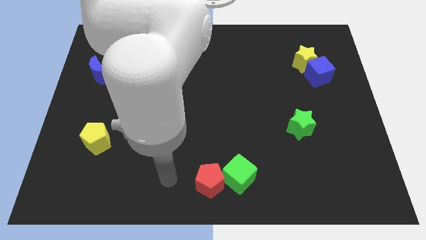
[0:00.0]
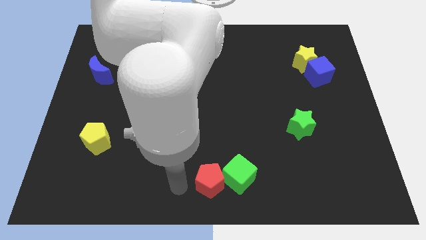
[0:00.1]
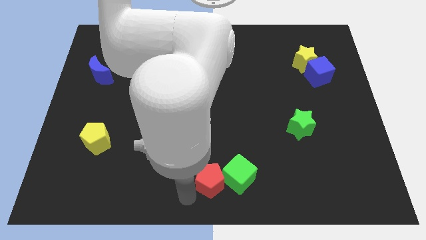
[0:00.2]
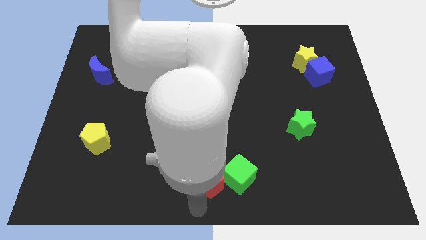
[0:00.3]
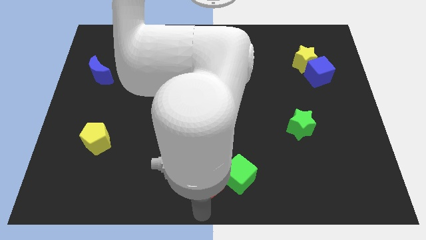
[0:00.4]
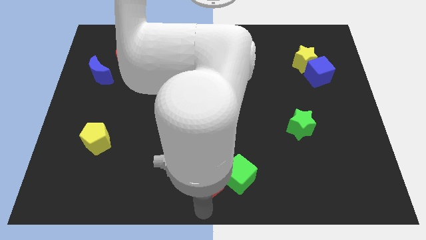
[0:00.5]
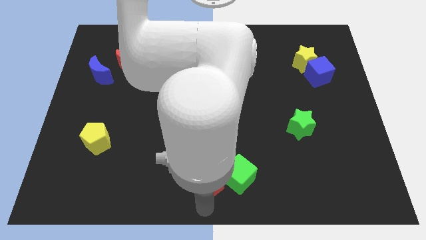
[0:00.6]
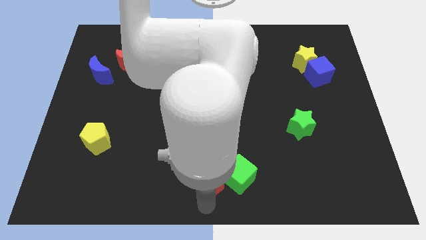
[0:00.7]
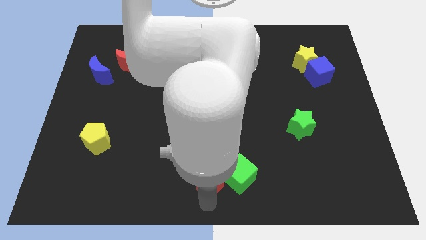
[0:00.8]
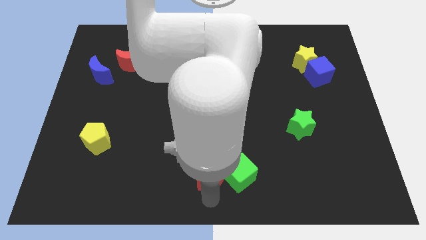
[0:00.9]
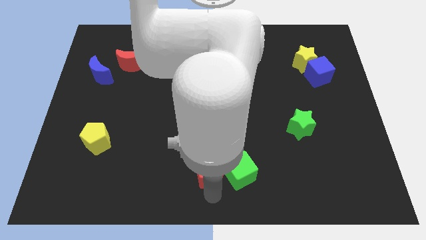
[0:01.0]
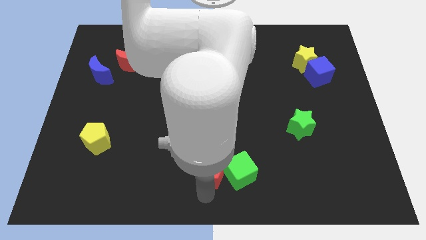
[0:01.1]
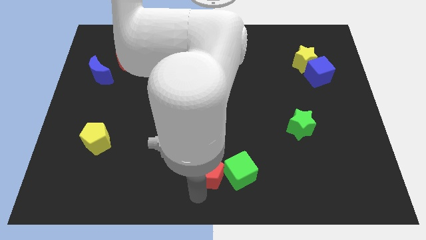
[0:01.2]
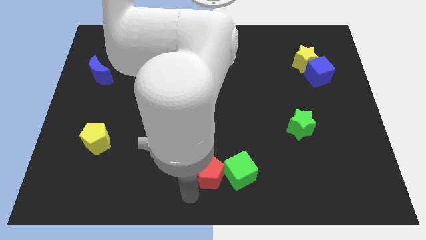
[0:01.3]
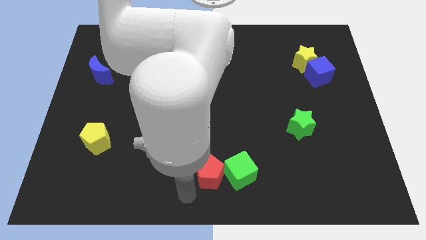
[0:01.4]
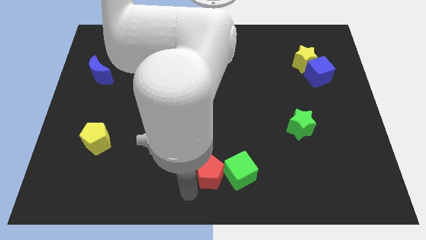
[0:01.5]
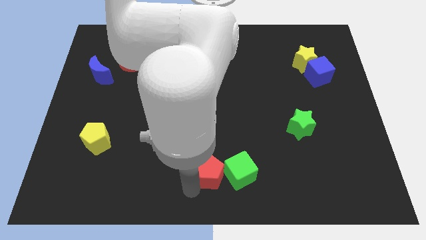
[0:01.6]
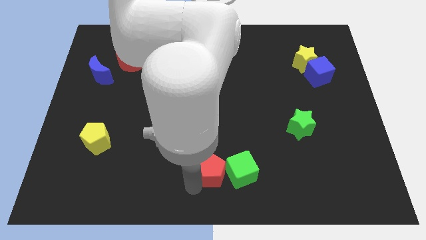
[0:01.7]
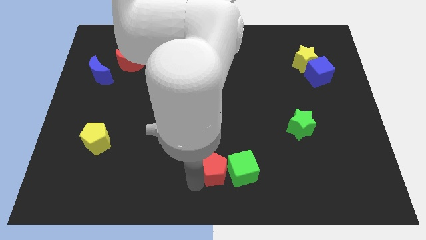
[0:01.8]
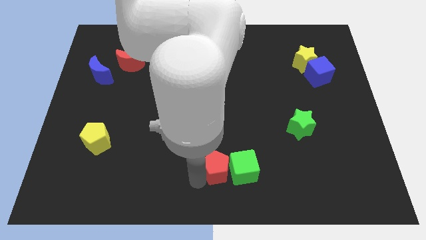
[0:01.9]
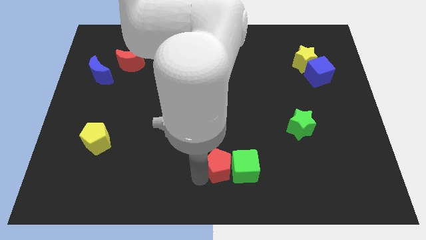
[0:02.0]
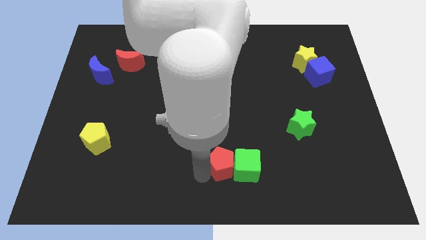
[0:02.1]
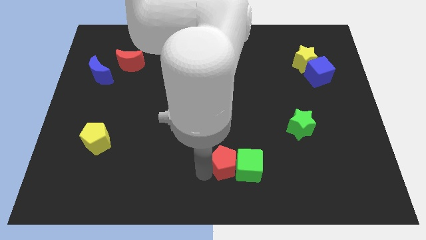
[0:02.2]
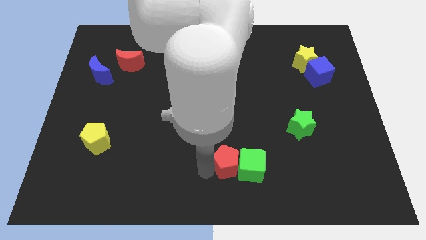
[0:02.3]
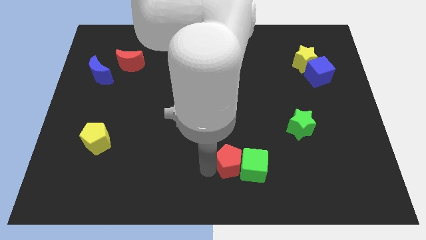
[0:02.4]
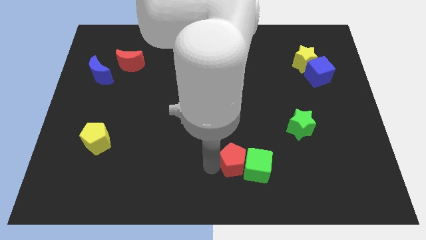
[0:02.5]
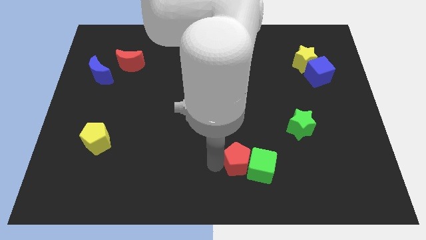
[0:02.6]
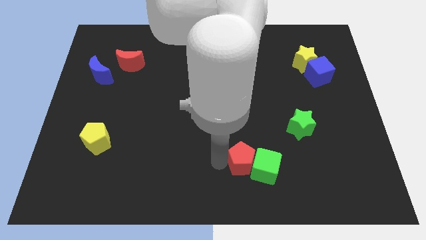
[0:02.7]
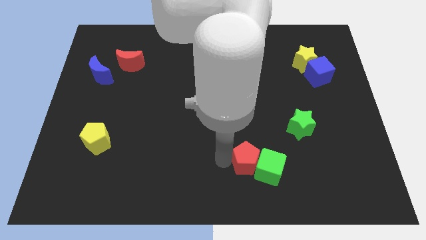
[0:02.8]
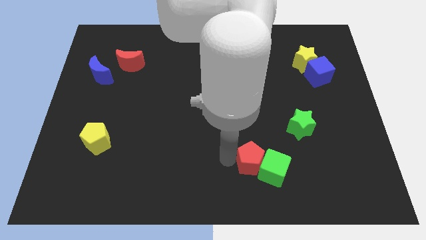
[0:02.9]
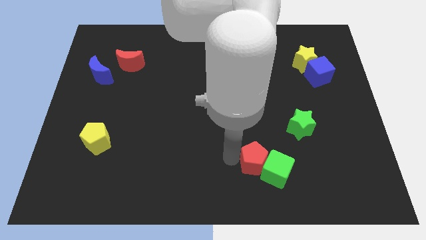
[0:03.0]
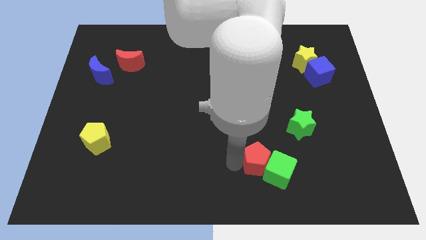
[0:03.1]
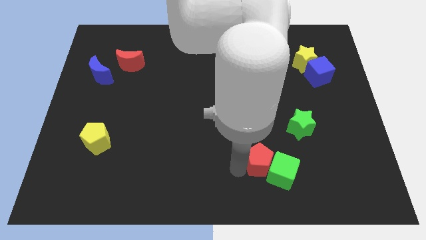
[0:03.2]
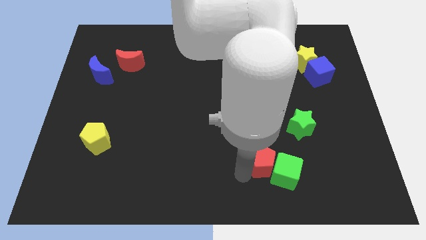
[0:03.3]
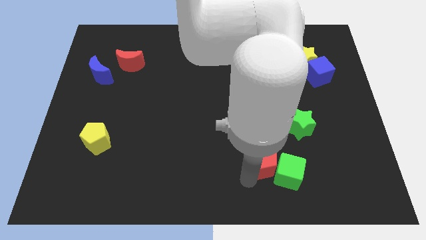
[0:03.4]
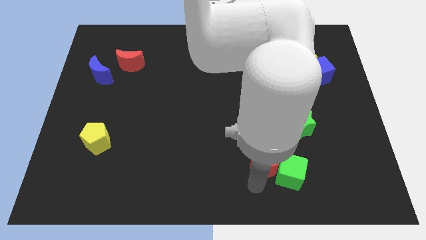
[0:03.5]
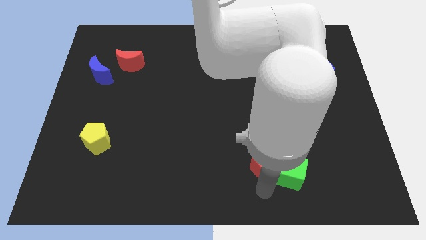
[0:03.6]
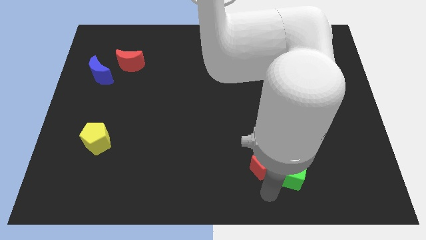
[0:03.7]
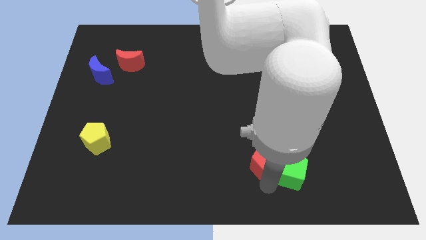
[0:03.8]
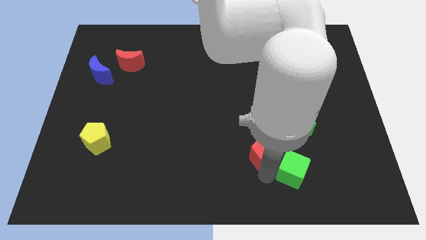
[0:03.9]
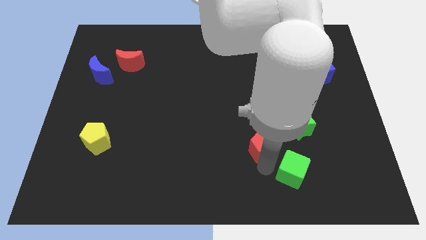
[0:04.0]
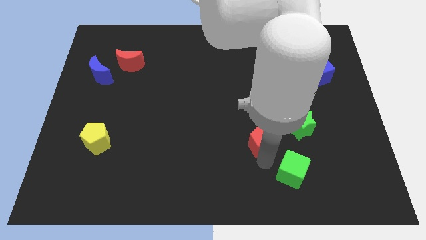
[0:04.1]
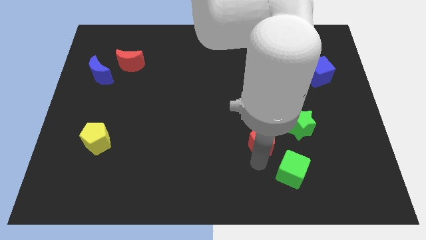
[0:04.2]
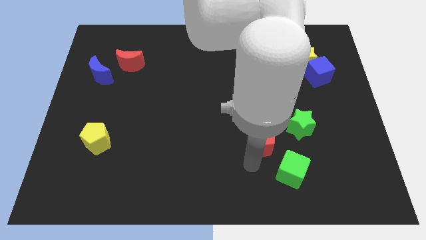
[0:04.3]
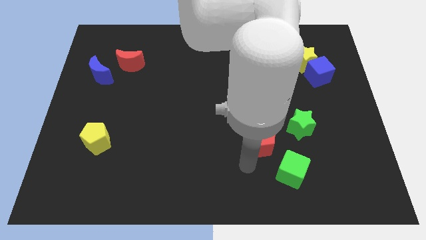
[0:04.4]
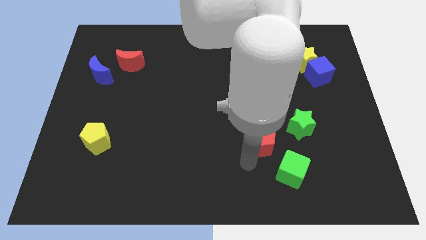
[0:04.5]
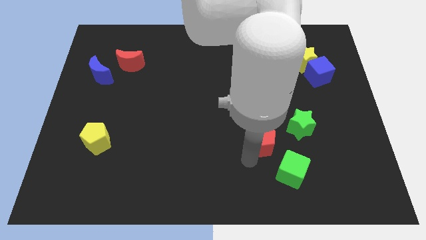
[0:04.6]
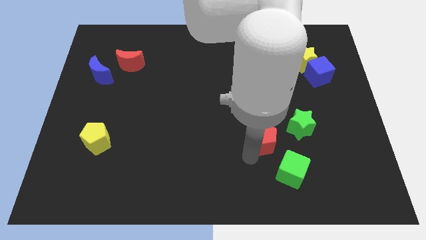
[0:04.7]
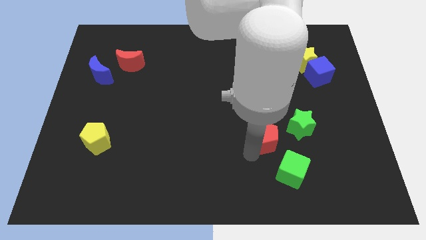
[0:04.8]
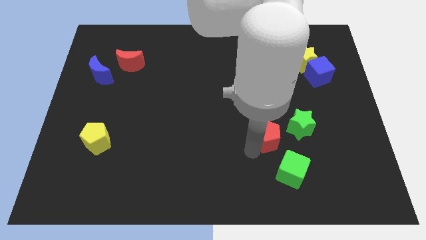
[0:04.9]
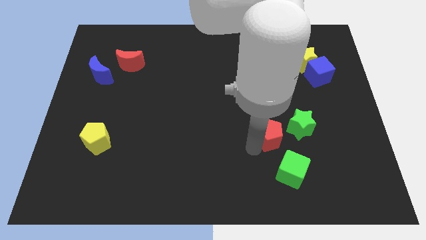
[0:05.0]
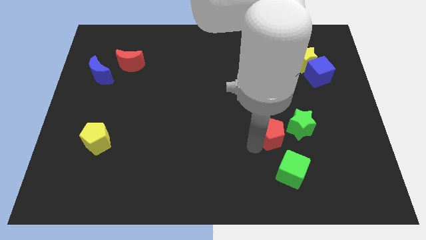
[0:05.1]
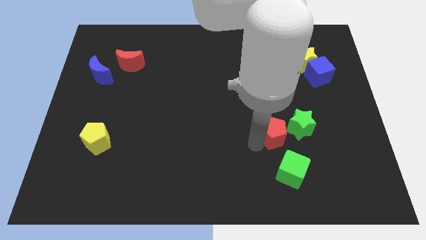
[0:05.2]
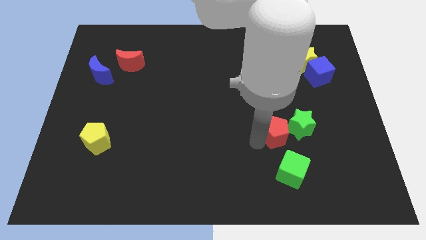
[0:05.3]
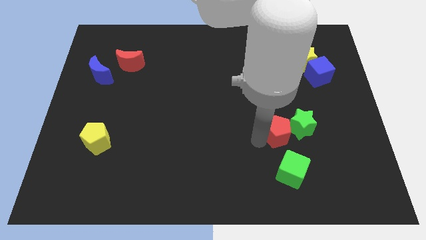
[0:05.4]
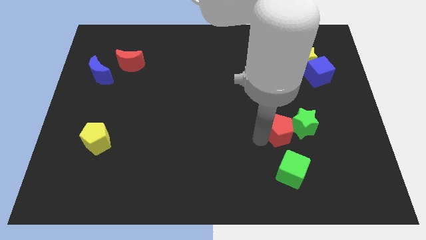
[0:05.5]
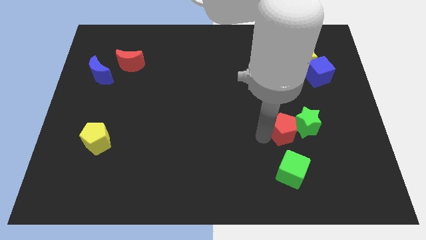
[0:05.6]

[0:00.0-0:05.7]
slide the red pentagon upwards and to the right

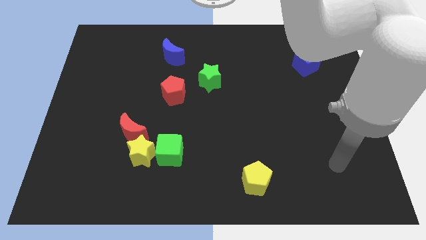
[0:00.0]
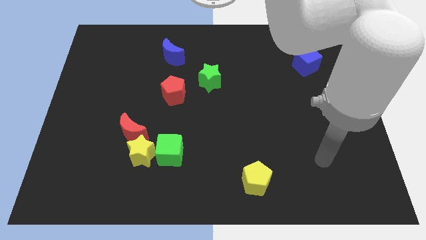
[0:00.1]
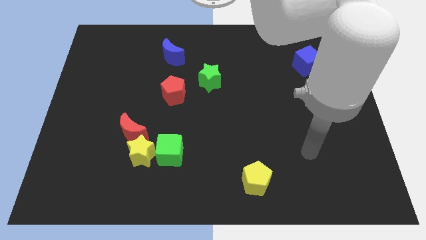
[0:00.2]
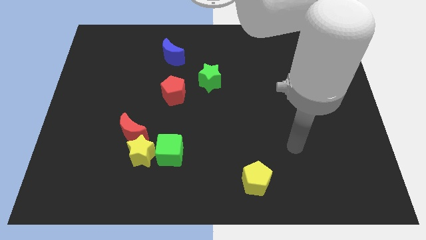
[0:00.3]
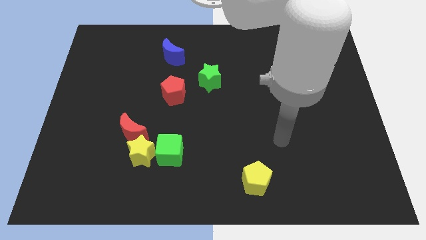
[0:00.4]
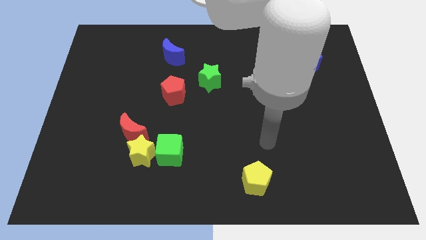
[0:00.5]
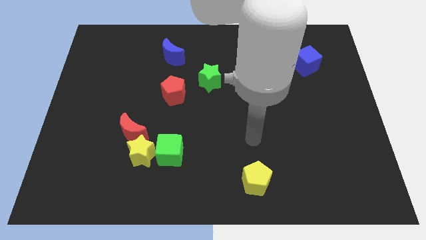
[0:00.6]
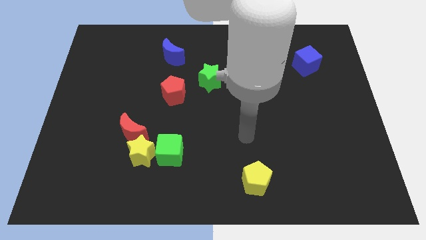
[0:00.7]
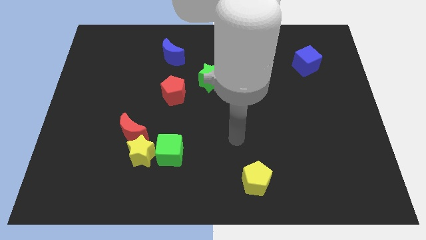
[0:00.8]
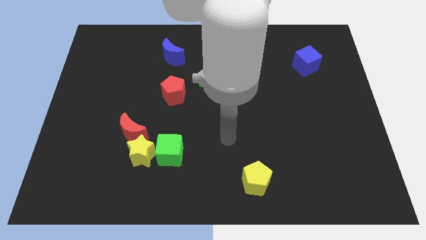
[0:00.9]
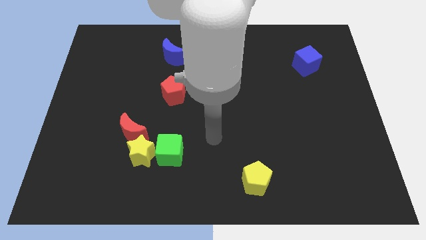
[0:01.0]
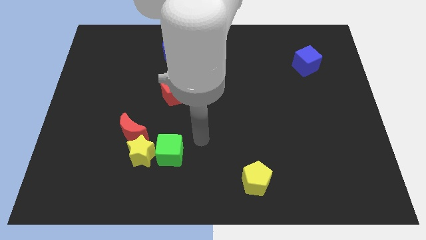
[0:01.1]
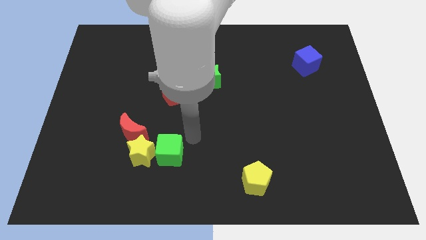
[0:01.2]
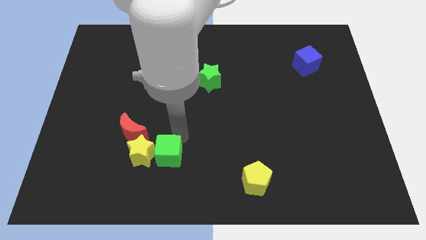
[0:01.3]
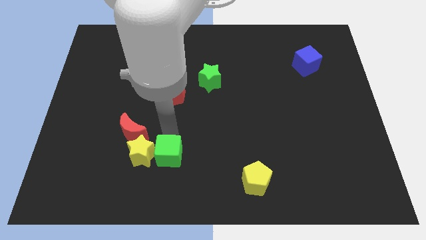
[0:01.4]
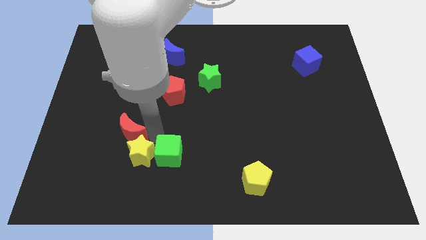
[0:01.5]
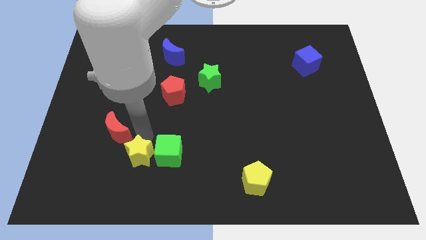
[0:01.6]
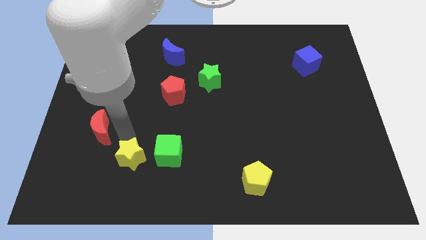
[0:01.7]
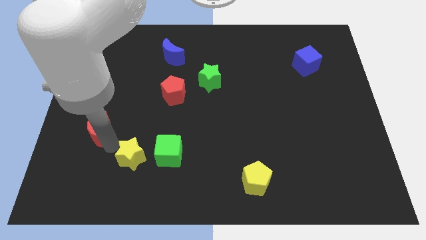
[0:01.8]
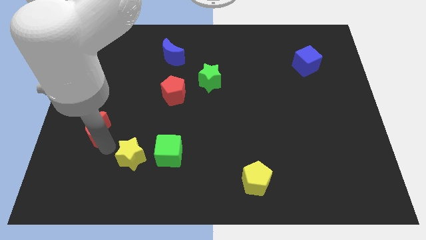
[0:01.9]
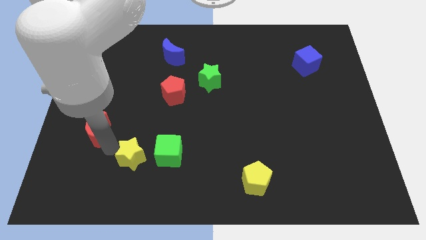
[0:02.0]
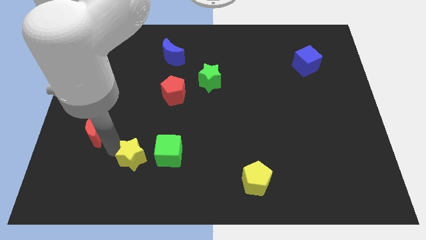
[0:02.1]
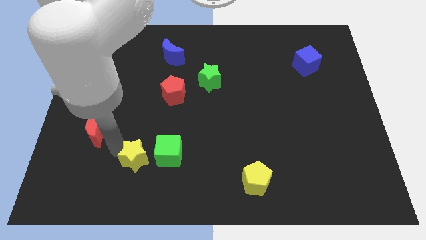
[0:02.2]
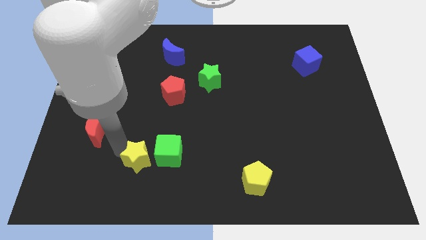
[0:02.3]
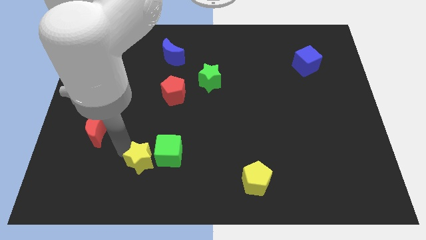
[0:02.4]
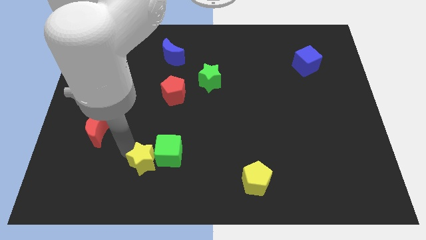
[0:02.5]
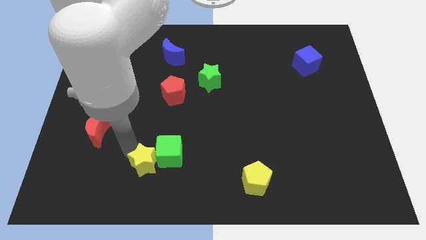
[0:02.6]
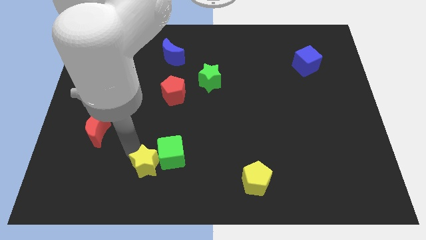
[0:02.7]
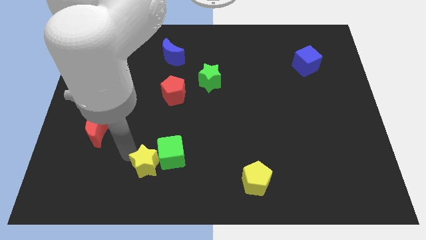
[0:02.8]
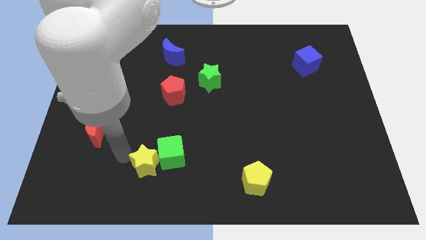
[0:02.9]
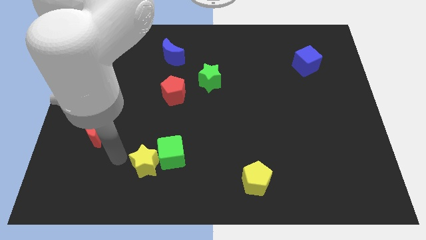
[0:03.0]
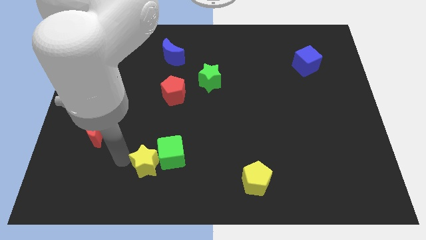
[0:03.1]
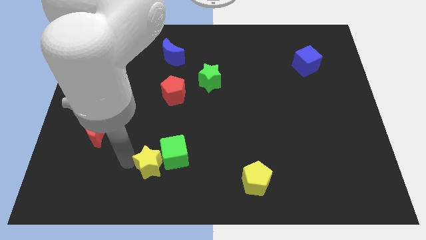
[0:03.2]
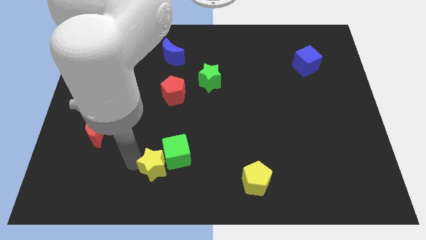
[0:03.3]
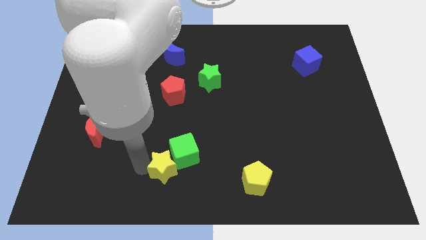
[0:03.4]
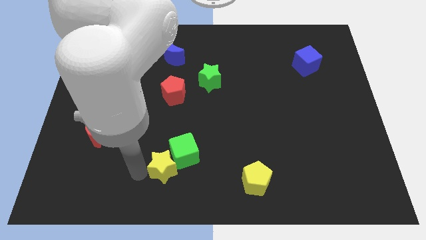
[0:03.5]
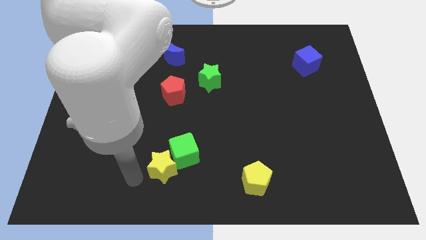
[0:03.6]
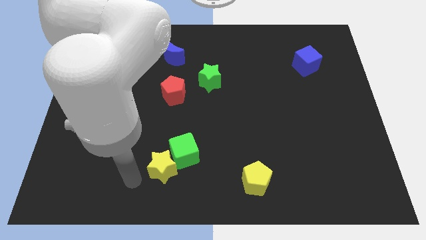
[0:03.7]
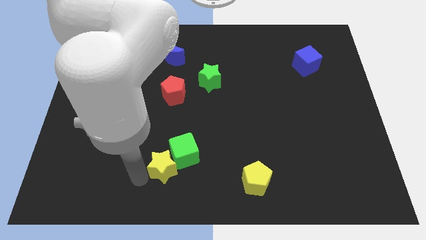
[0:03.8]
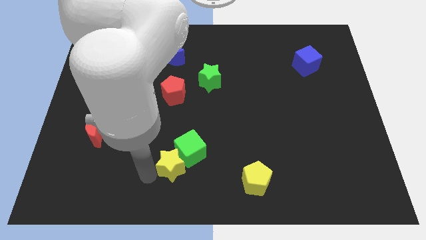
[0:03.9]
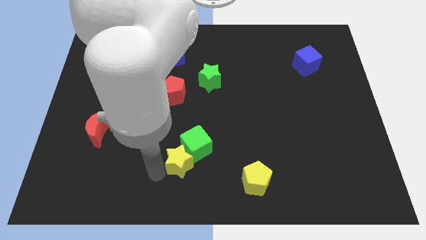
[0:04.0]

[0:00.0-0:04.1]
slightly push the yellow star to the right
